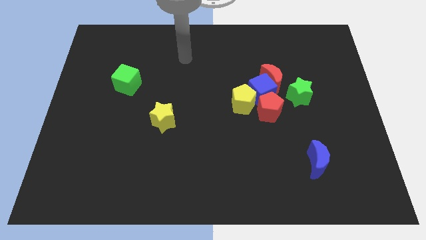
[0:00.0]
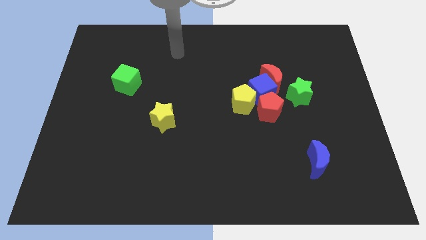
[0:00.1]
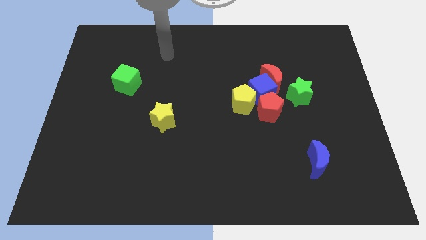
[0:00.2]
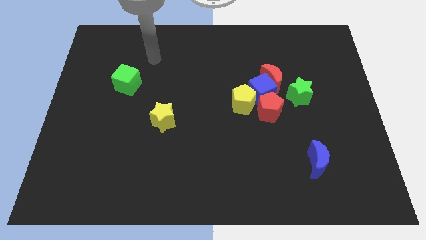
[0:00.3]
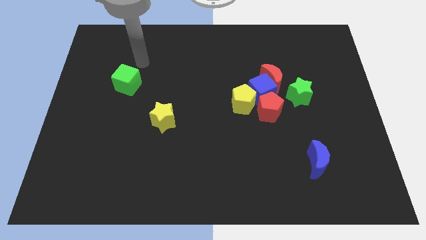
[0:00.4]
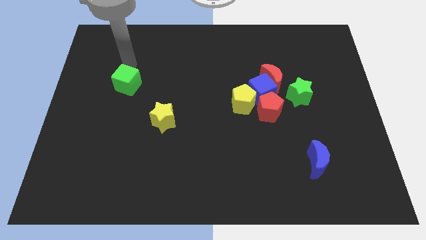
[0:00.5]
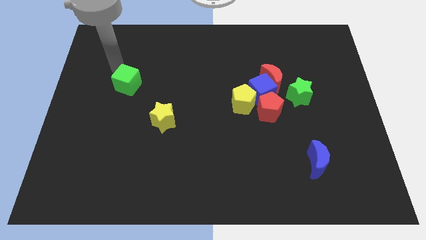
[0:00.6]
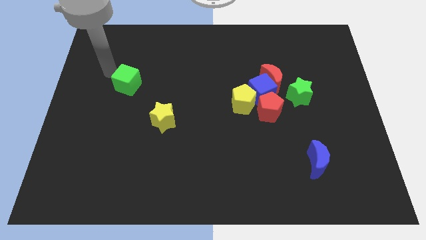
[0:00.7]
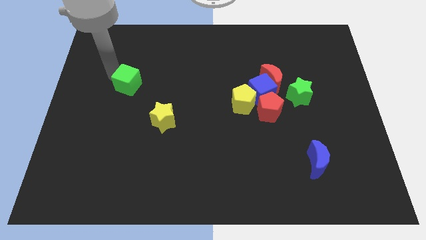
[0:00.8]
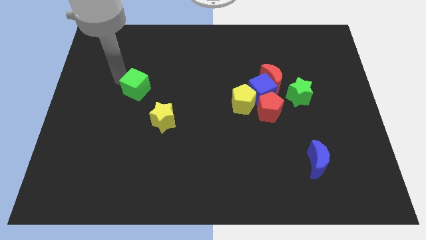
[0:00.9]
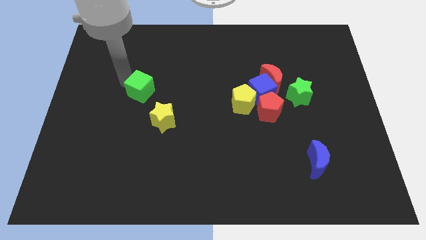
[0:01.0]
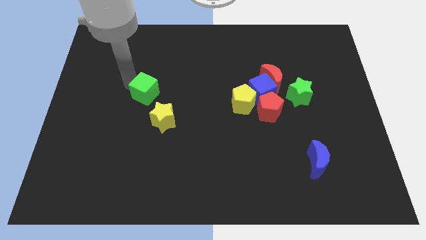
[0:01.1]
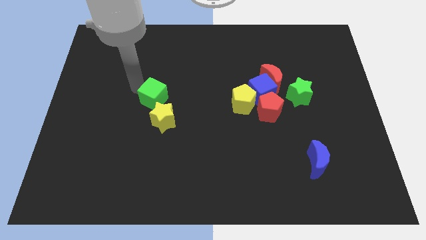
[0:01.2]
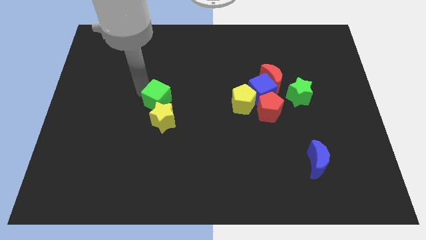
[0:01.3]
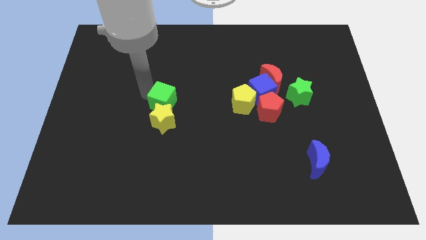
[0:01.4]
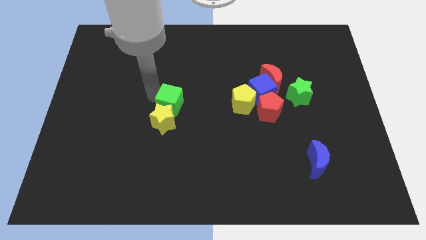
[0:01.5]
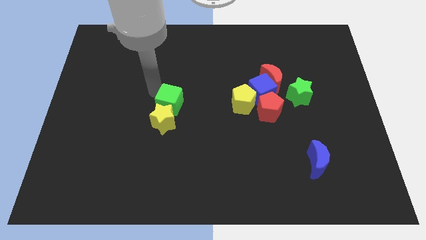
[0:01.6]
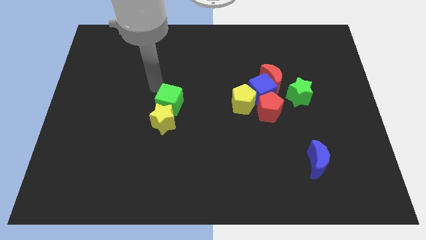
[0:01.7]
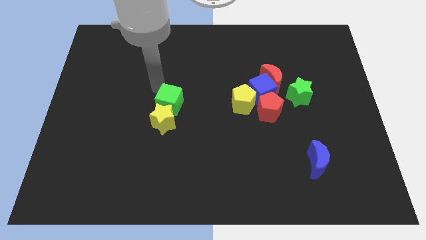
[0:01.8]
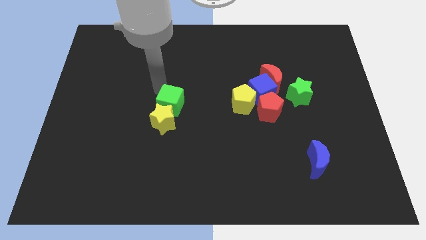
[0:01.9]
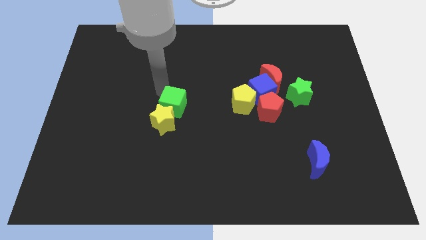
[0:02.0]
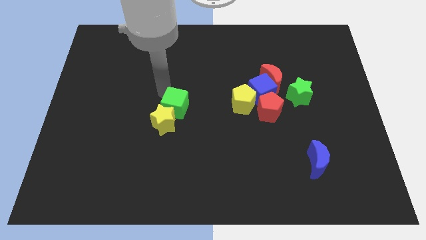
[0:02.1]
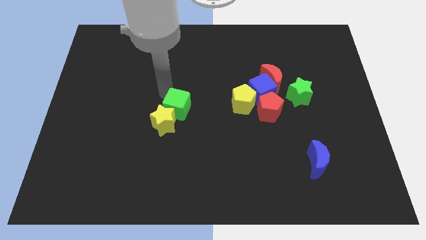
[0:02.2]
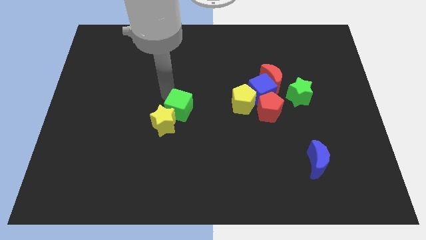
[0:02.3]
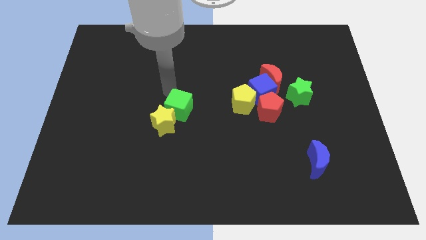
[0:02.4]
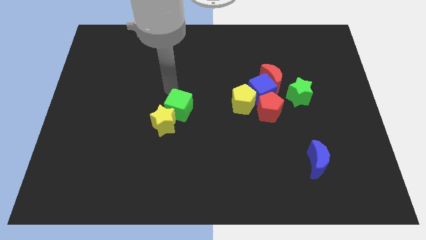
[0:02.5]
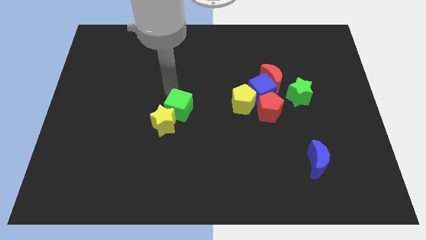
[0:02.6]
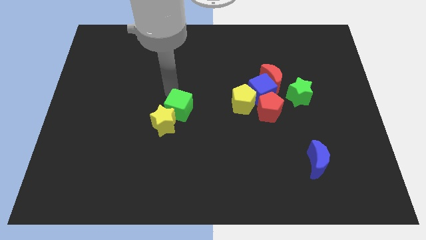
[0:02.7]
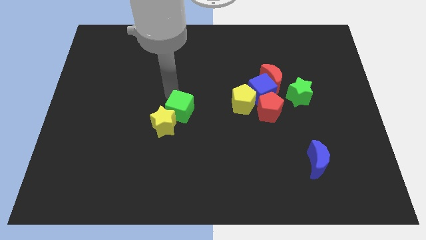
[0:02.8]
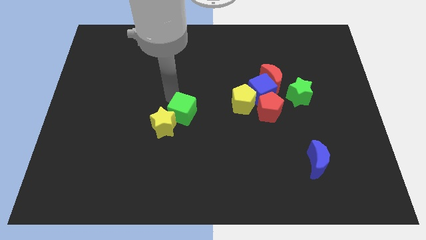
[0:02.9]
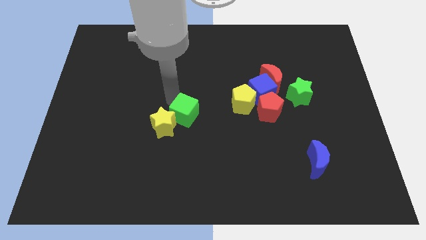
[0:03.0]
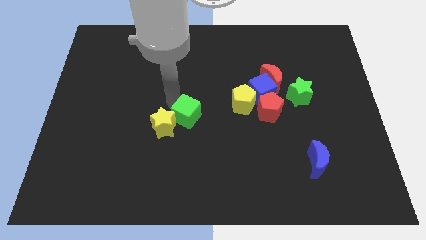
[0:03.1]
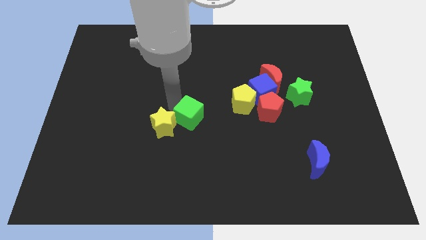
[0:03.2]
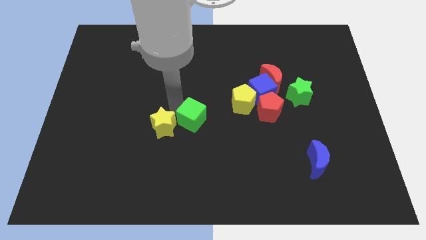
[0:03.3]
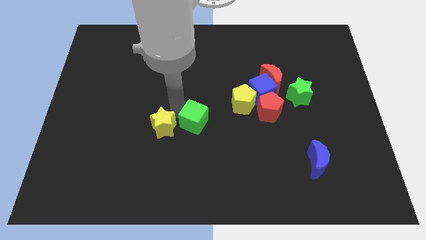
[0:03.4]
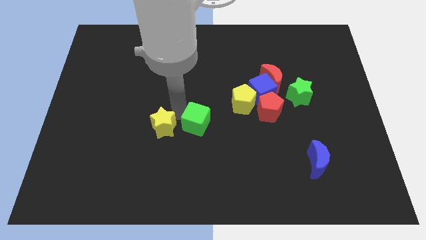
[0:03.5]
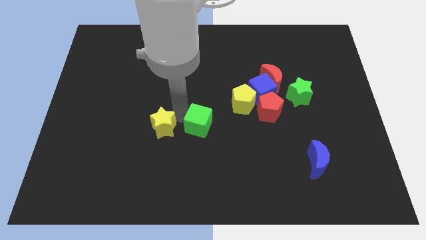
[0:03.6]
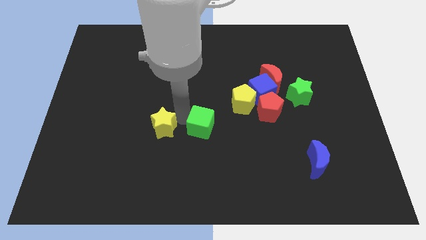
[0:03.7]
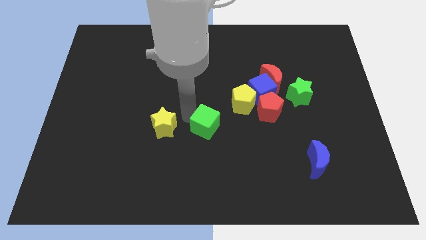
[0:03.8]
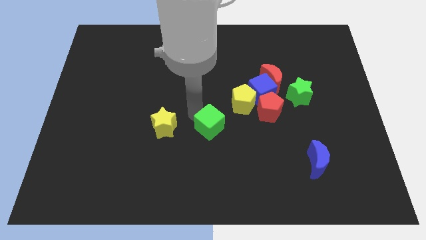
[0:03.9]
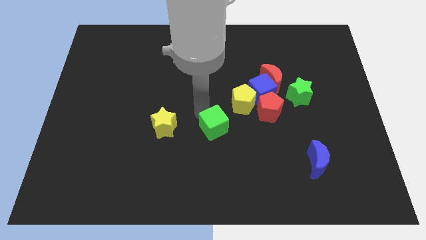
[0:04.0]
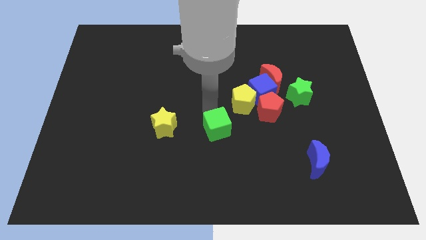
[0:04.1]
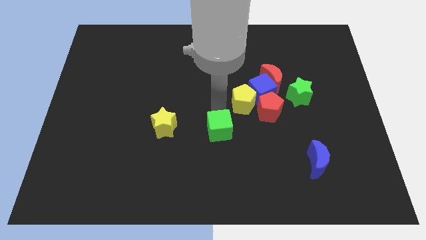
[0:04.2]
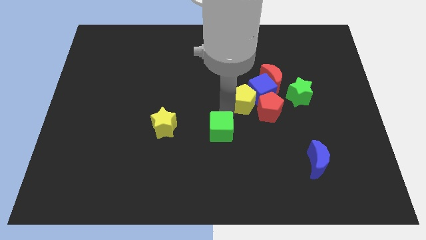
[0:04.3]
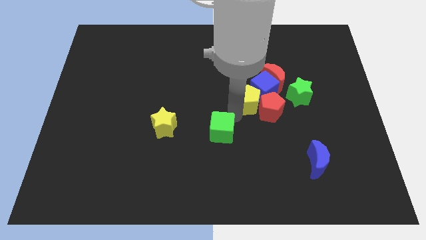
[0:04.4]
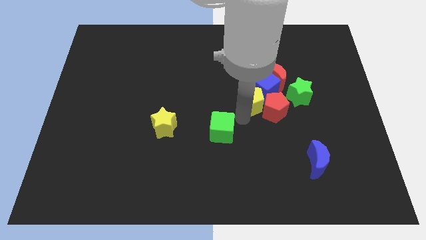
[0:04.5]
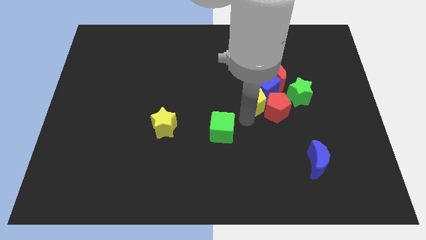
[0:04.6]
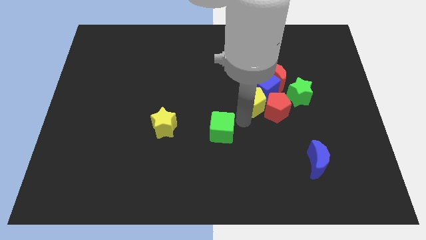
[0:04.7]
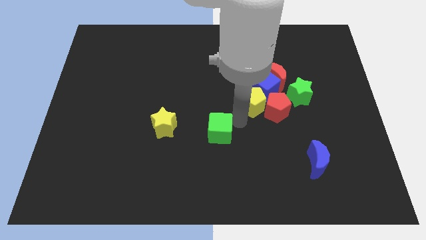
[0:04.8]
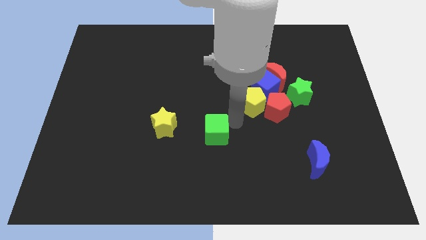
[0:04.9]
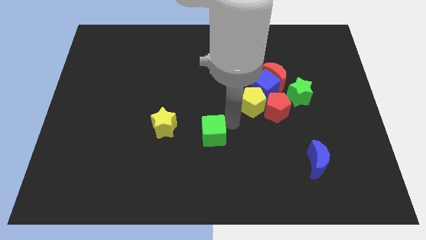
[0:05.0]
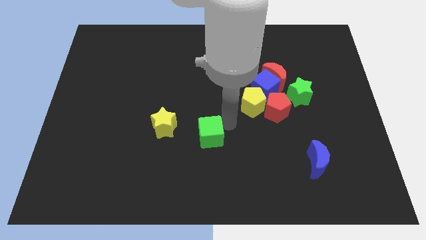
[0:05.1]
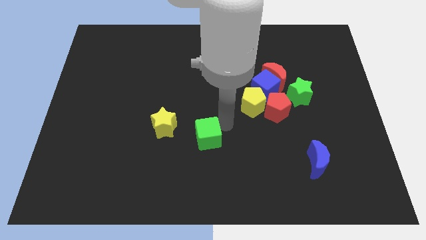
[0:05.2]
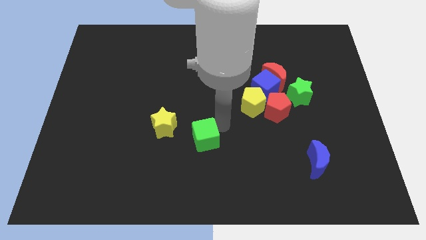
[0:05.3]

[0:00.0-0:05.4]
slide the green cube to the bottom right side of the yellow star

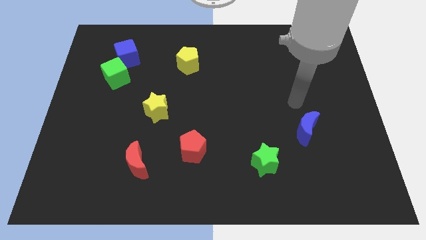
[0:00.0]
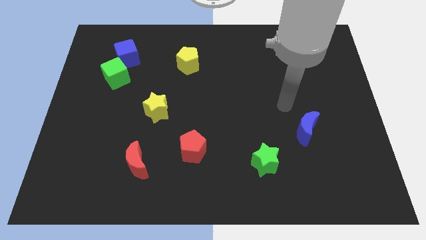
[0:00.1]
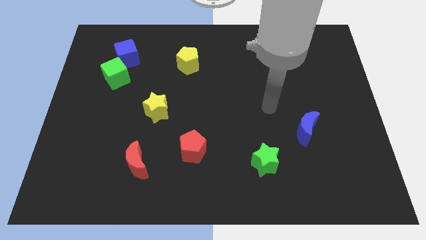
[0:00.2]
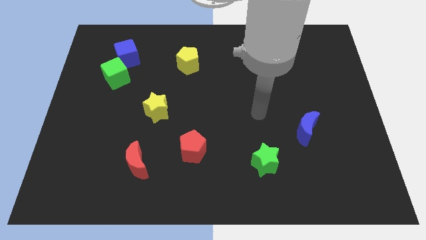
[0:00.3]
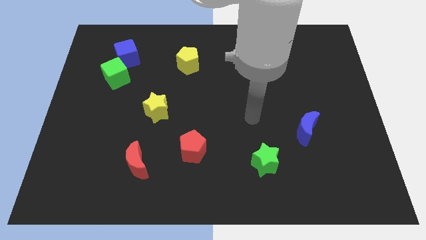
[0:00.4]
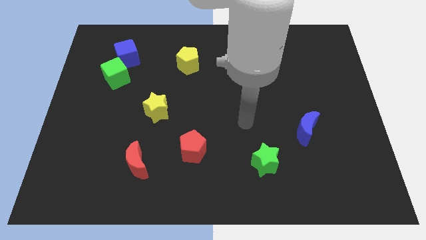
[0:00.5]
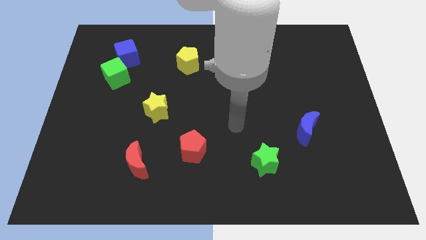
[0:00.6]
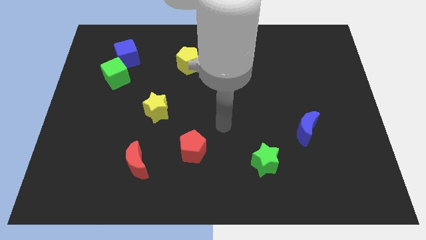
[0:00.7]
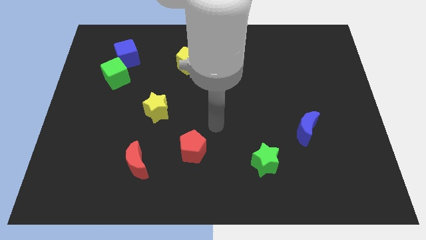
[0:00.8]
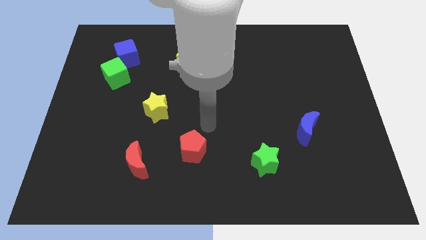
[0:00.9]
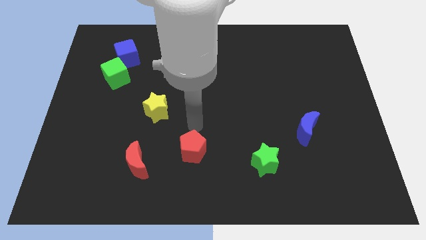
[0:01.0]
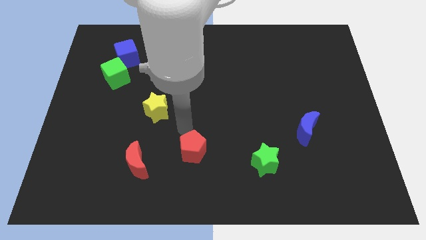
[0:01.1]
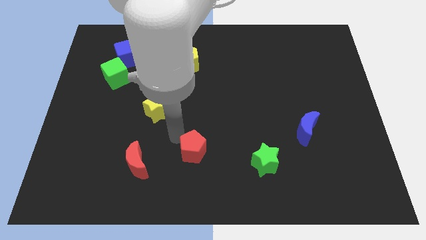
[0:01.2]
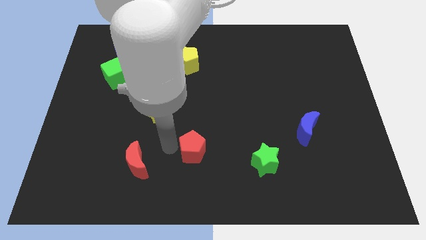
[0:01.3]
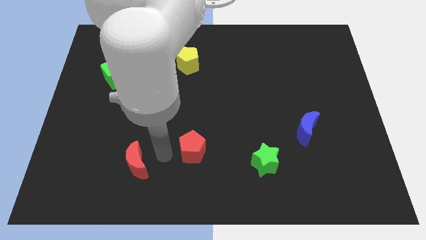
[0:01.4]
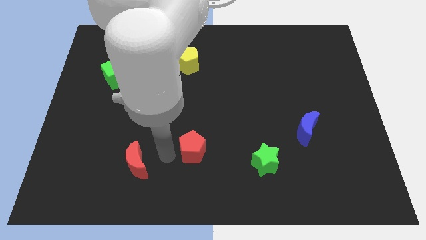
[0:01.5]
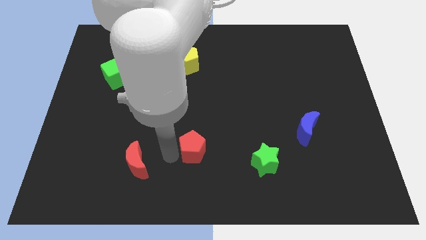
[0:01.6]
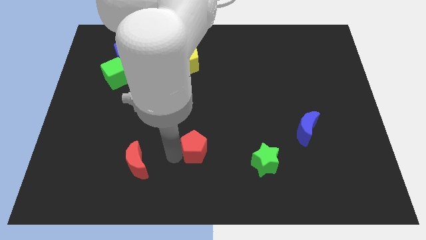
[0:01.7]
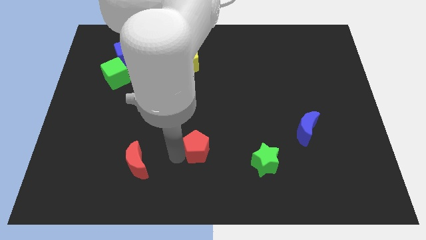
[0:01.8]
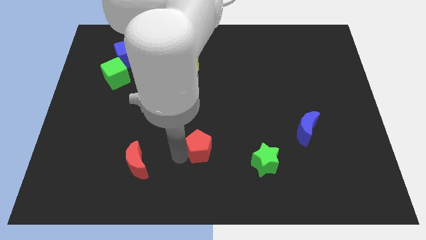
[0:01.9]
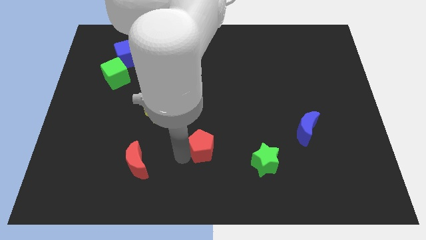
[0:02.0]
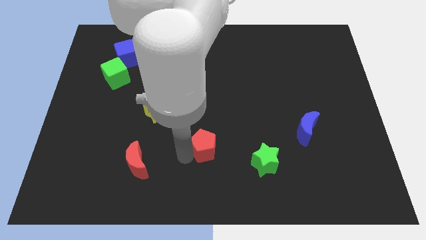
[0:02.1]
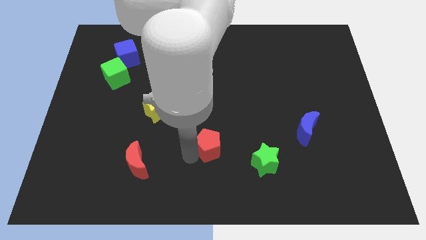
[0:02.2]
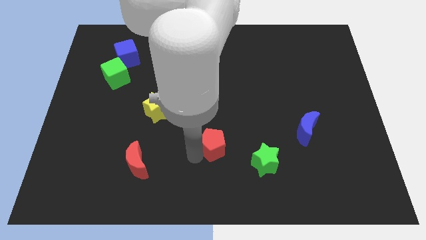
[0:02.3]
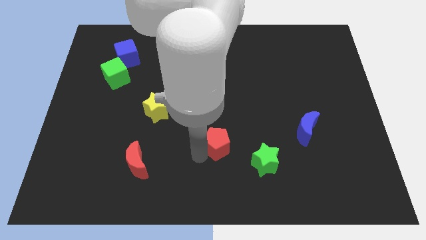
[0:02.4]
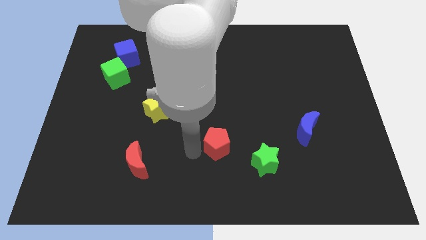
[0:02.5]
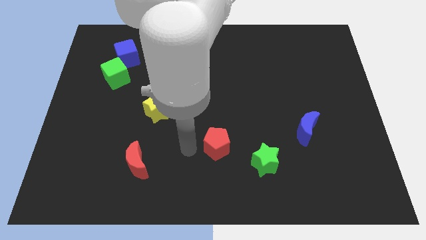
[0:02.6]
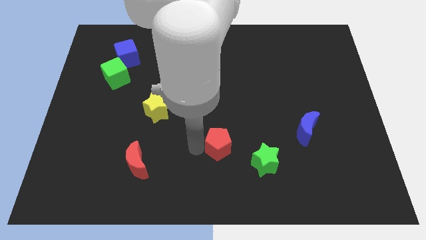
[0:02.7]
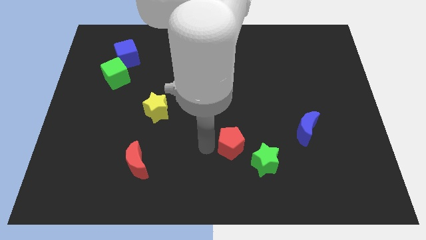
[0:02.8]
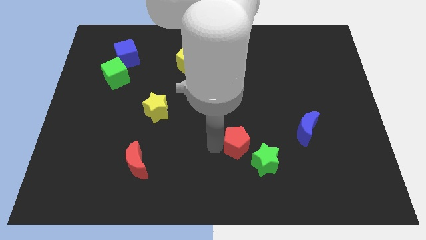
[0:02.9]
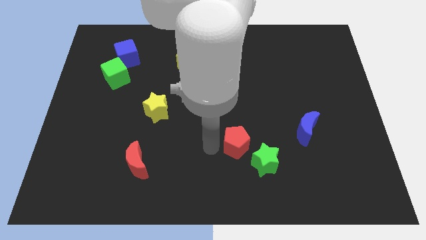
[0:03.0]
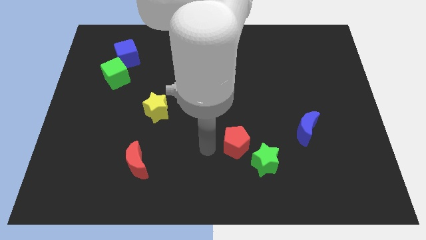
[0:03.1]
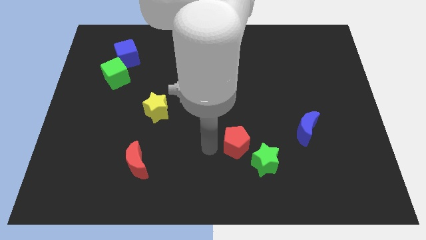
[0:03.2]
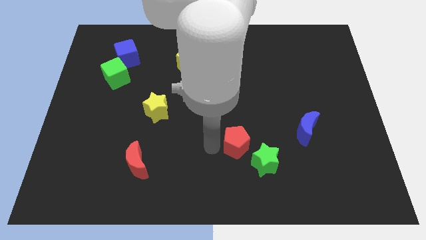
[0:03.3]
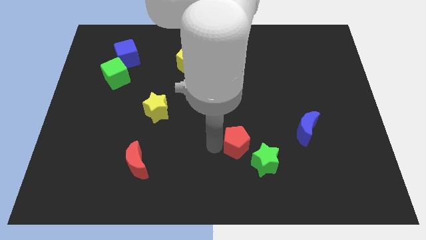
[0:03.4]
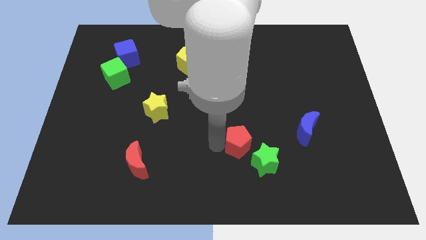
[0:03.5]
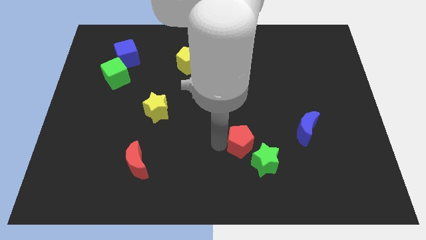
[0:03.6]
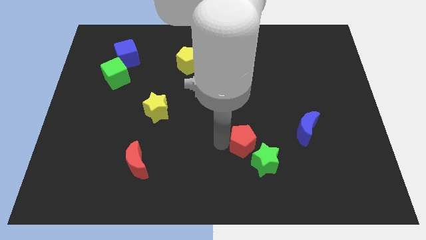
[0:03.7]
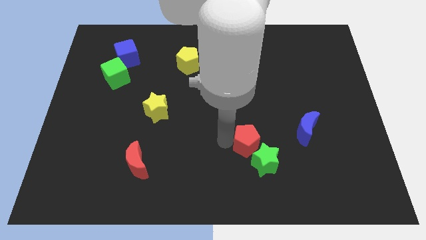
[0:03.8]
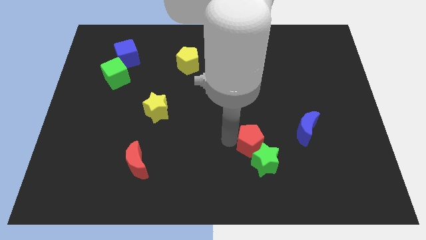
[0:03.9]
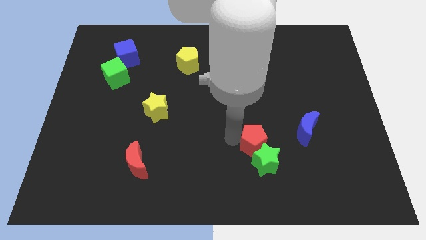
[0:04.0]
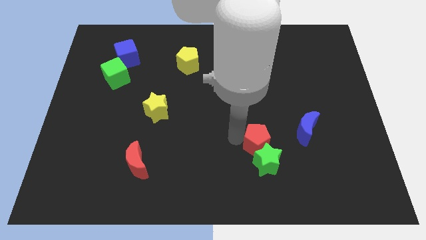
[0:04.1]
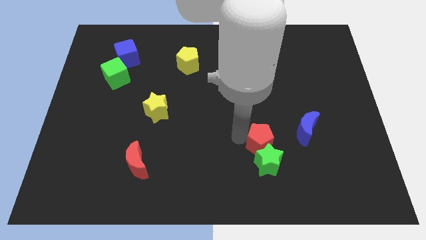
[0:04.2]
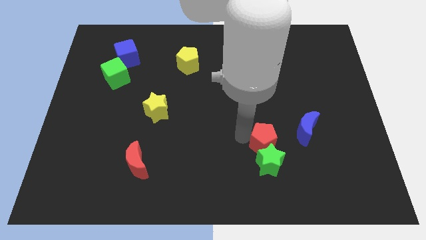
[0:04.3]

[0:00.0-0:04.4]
slide the red pentagon to the bottom left side of the blue moon
